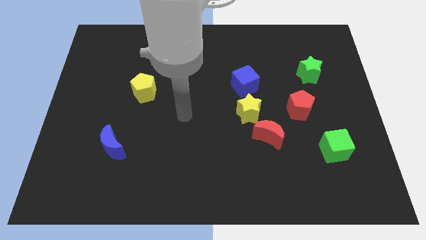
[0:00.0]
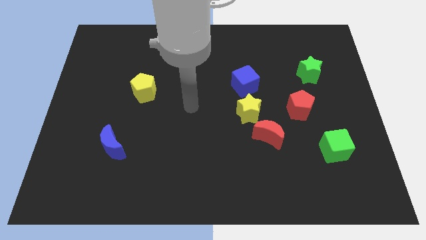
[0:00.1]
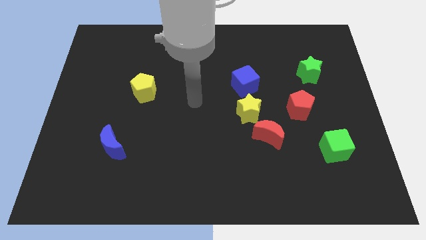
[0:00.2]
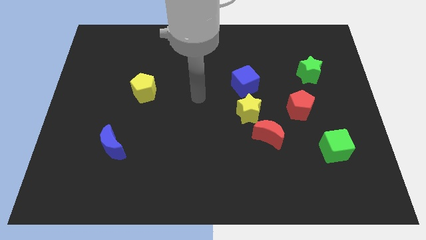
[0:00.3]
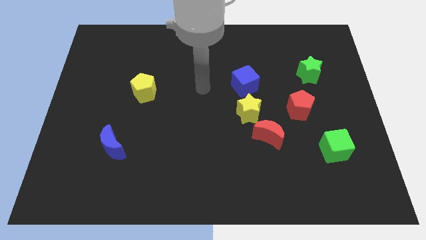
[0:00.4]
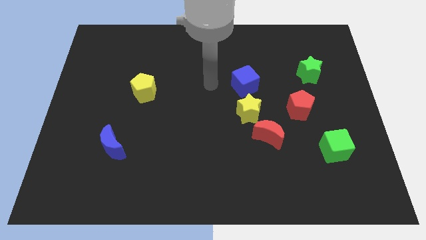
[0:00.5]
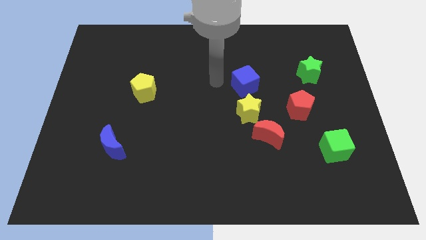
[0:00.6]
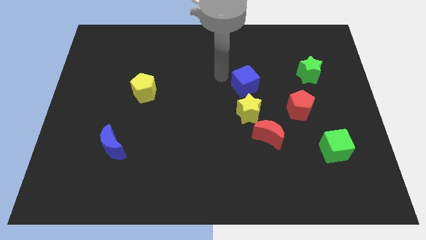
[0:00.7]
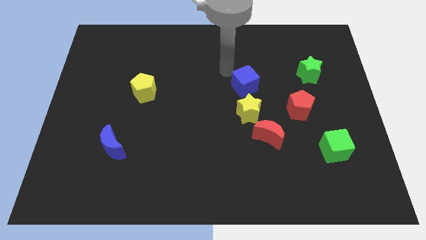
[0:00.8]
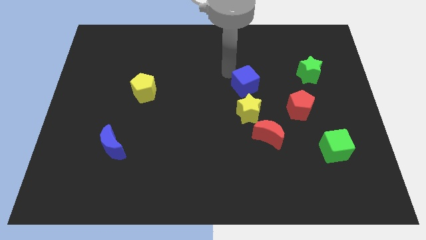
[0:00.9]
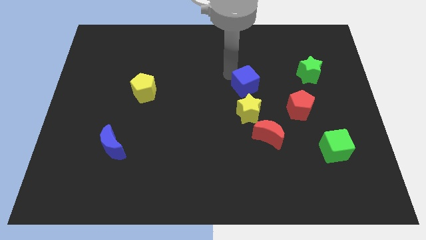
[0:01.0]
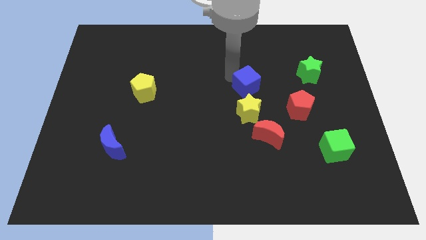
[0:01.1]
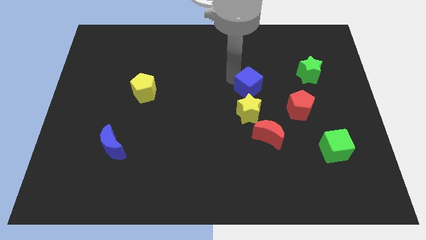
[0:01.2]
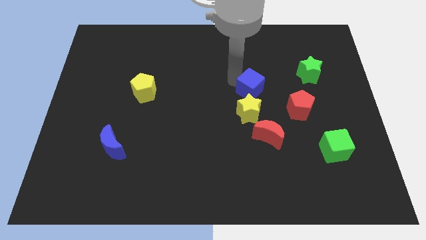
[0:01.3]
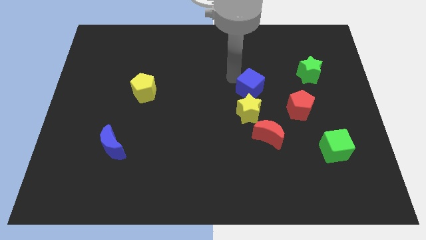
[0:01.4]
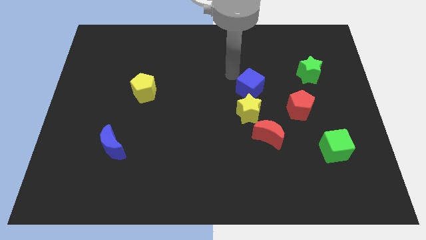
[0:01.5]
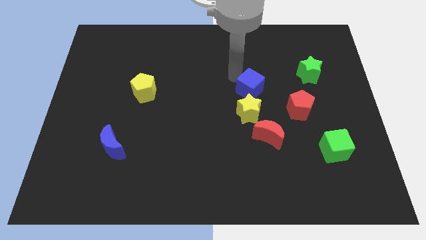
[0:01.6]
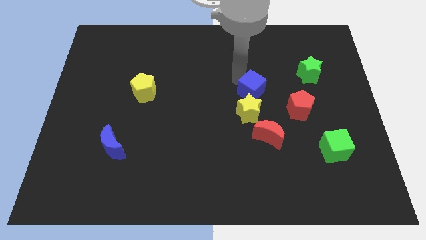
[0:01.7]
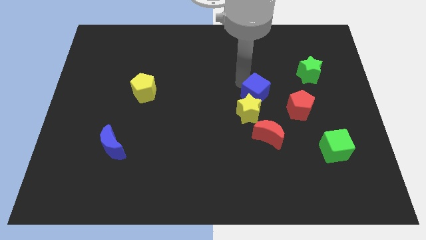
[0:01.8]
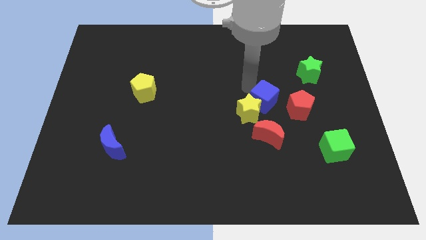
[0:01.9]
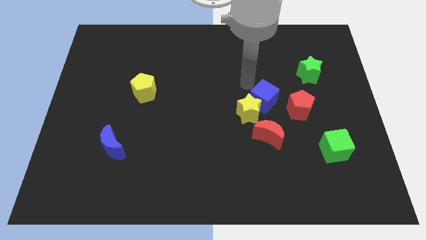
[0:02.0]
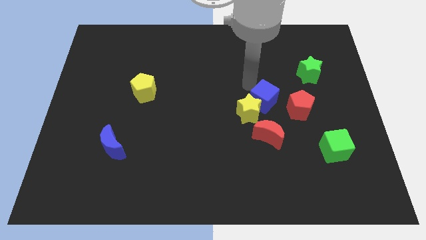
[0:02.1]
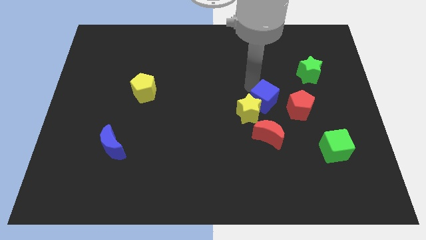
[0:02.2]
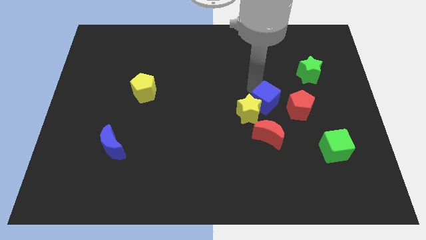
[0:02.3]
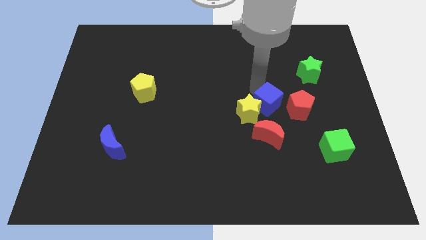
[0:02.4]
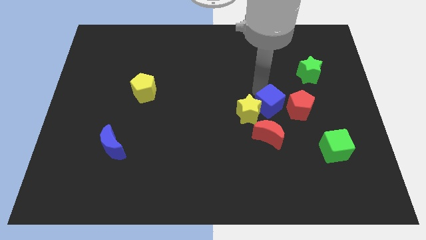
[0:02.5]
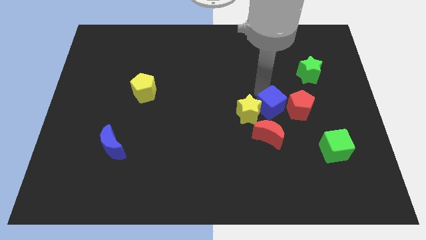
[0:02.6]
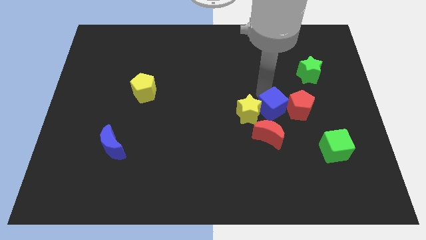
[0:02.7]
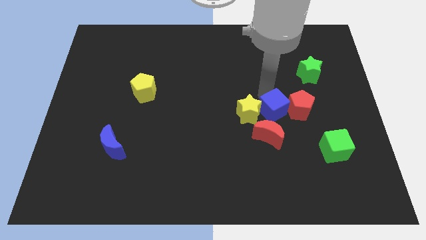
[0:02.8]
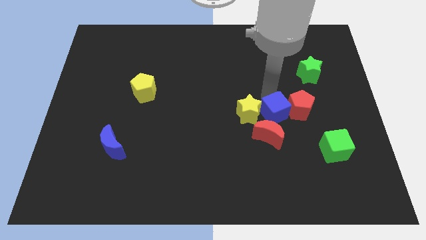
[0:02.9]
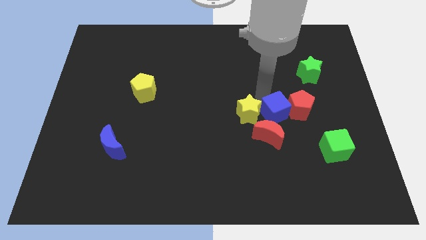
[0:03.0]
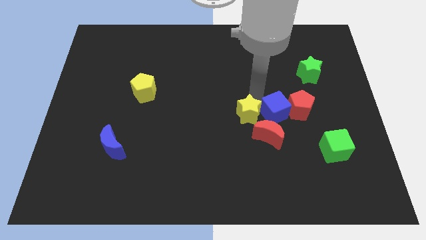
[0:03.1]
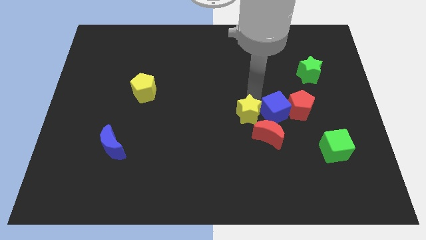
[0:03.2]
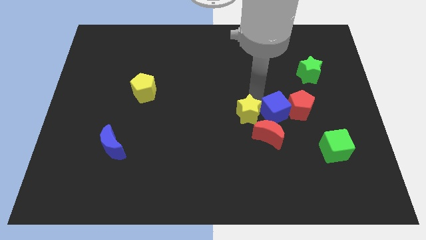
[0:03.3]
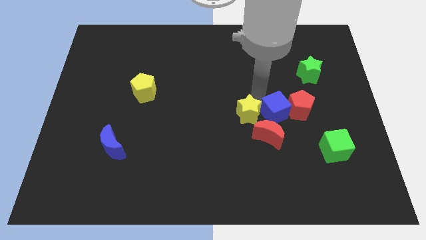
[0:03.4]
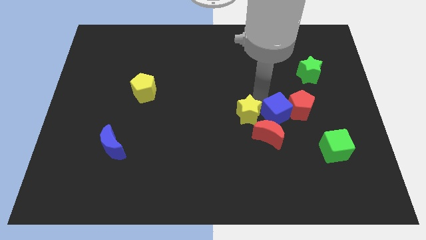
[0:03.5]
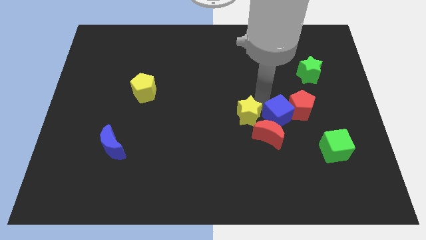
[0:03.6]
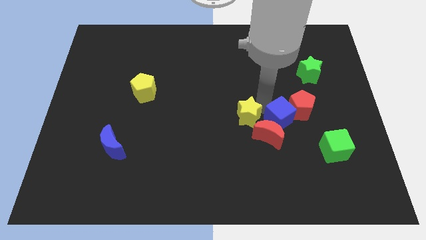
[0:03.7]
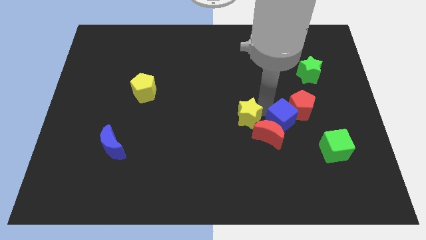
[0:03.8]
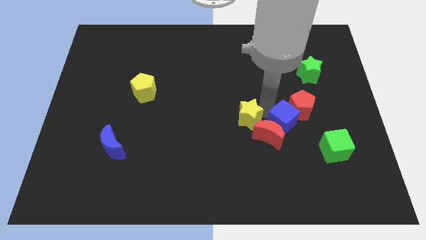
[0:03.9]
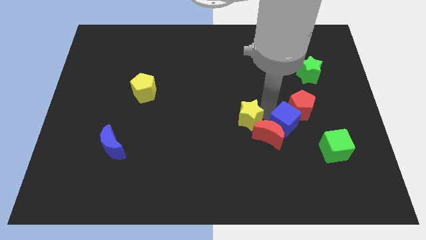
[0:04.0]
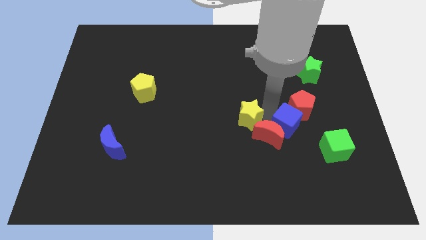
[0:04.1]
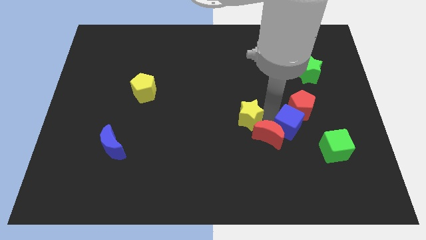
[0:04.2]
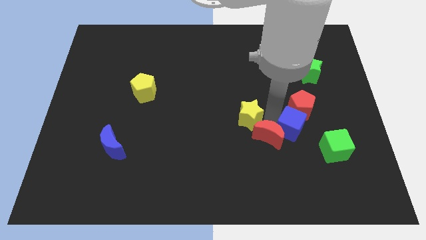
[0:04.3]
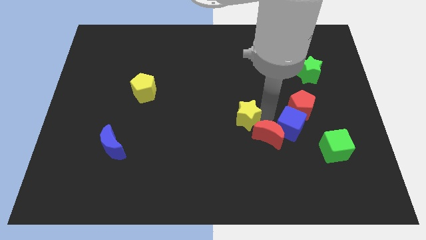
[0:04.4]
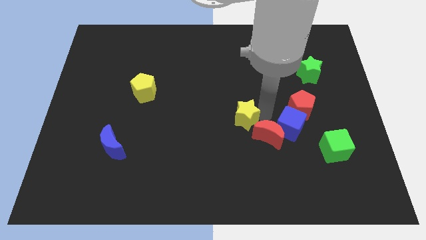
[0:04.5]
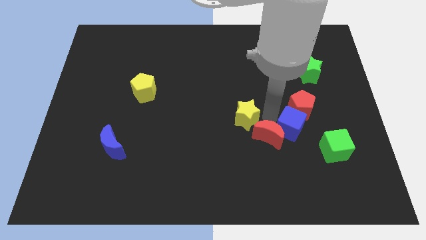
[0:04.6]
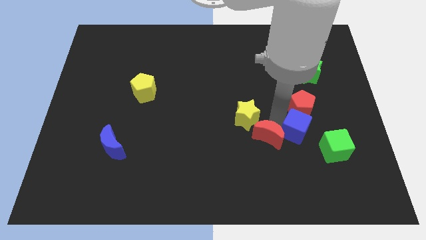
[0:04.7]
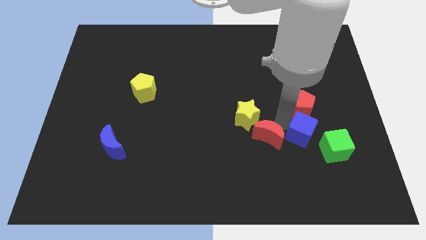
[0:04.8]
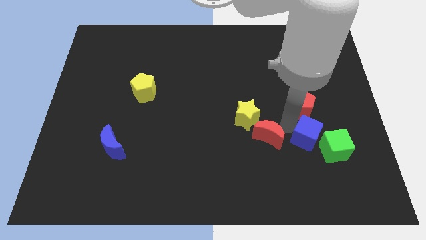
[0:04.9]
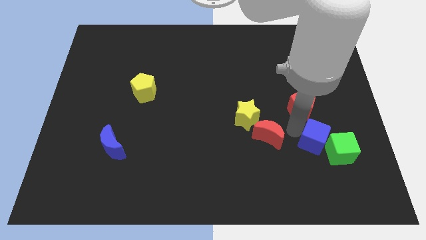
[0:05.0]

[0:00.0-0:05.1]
put the blue cube towards the green cube

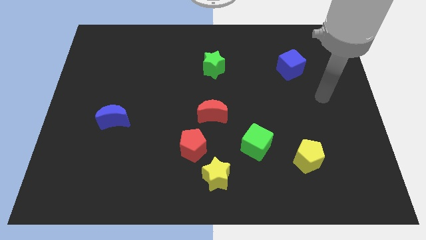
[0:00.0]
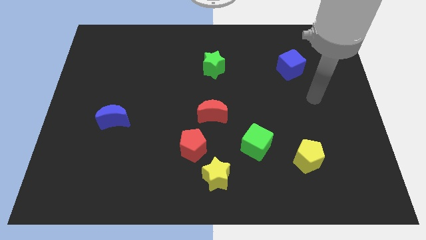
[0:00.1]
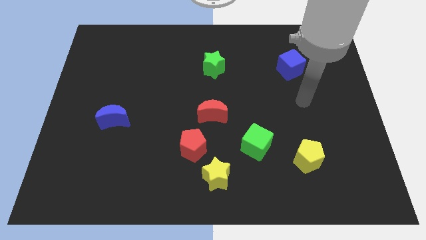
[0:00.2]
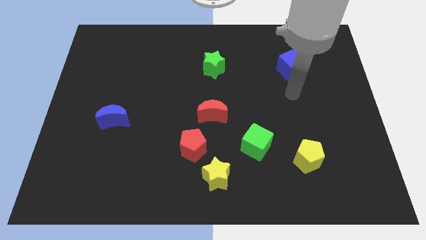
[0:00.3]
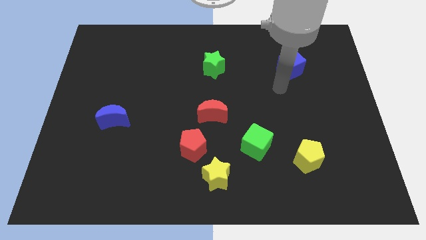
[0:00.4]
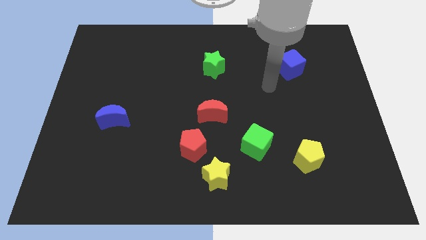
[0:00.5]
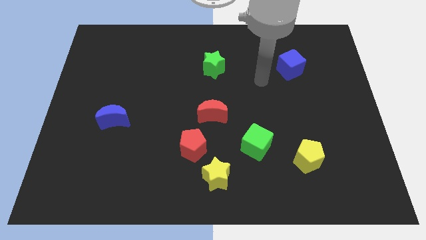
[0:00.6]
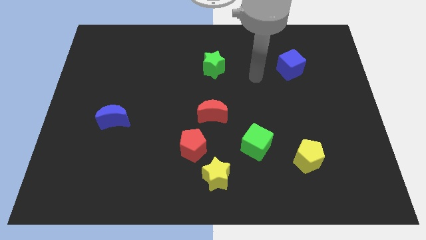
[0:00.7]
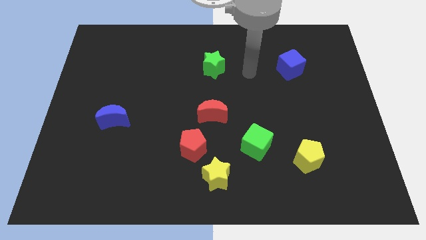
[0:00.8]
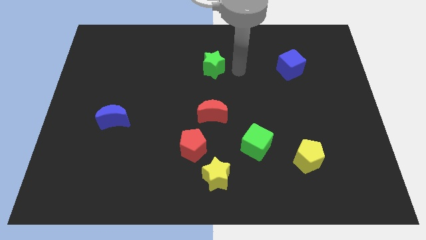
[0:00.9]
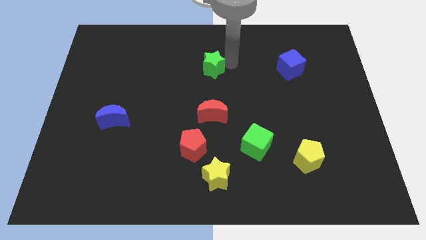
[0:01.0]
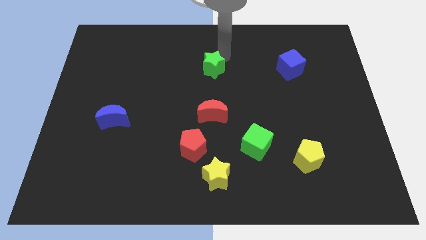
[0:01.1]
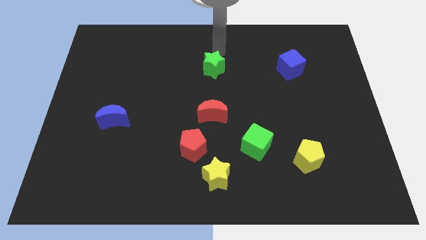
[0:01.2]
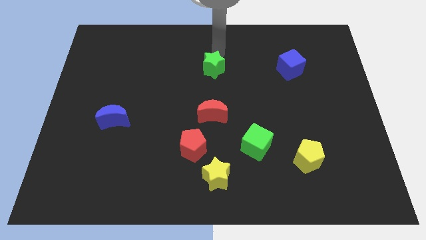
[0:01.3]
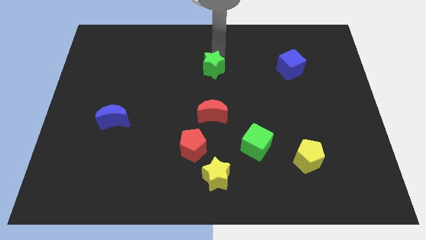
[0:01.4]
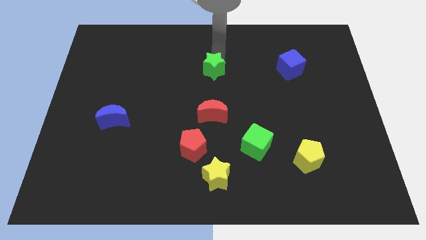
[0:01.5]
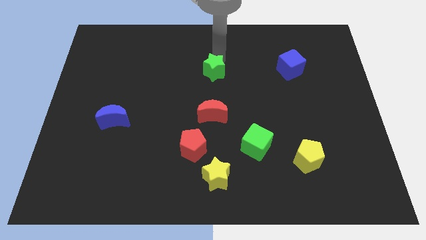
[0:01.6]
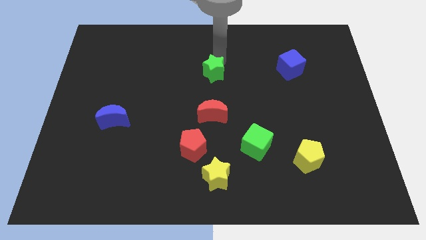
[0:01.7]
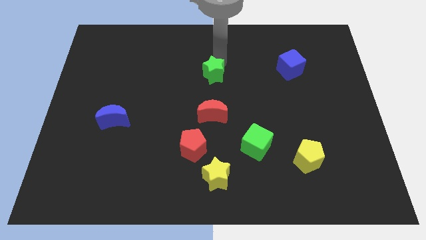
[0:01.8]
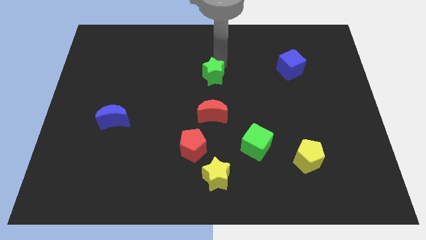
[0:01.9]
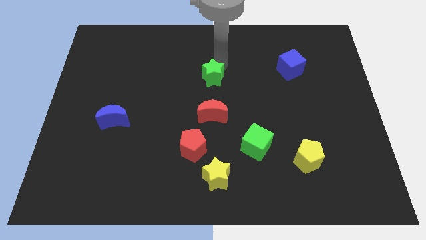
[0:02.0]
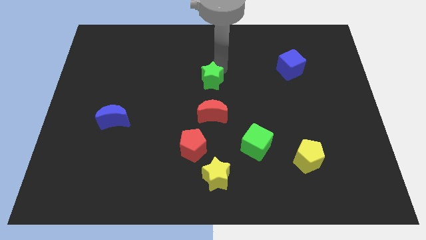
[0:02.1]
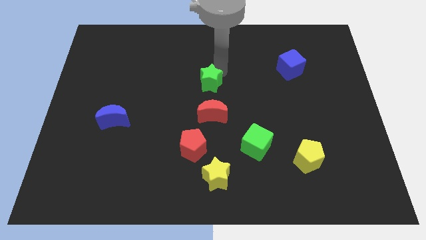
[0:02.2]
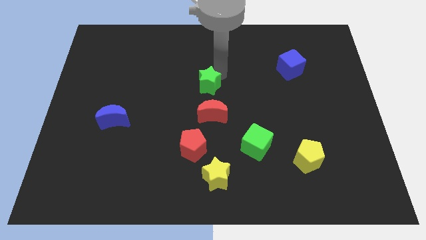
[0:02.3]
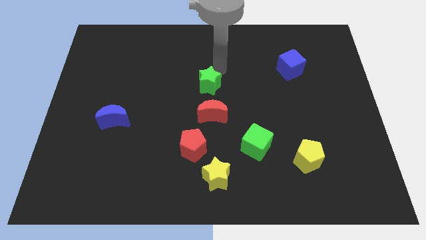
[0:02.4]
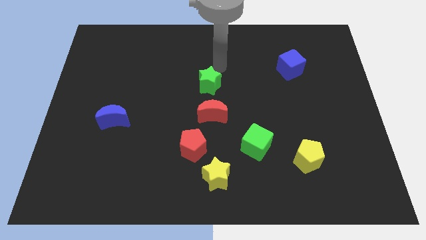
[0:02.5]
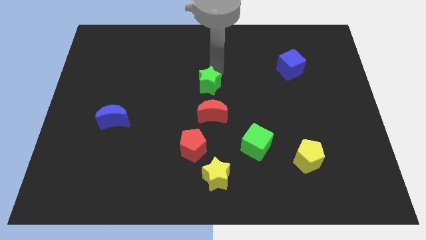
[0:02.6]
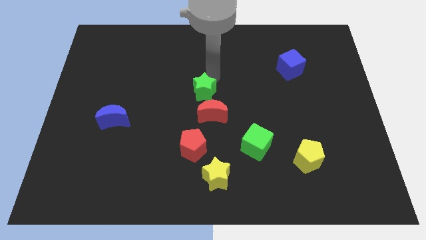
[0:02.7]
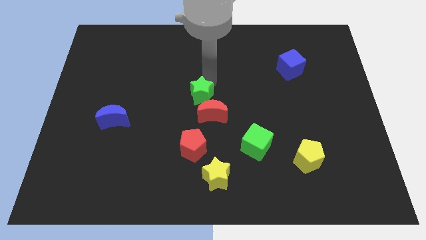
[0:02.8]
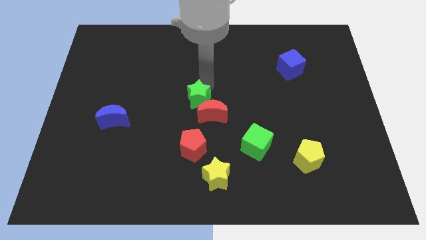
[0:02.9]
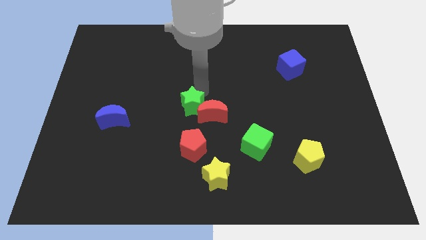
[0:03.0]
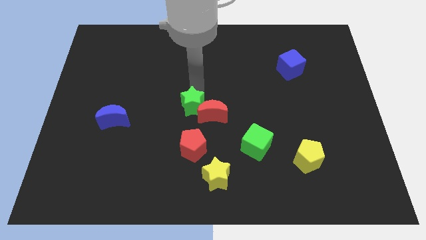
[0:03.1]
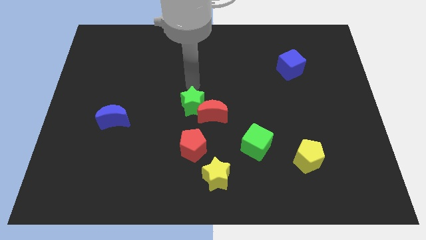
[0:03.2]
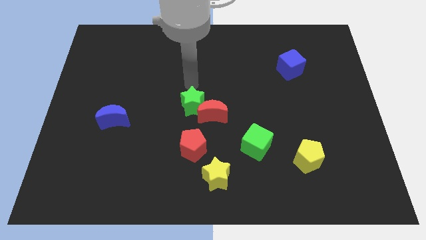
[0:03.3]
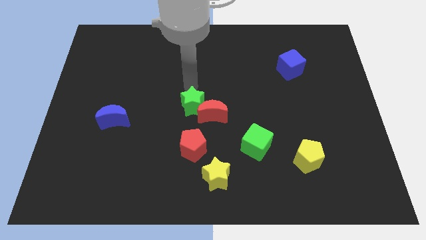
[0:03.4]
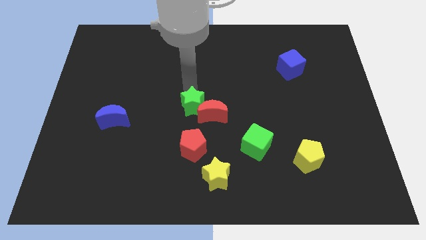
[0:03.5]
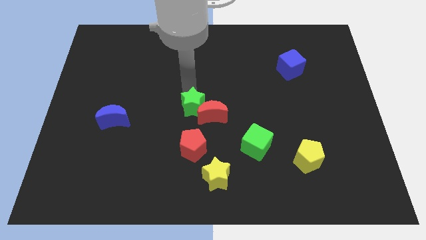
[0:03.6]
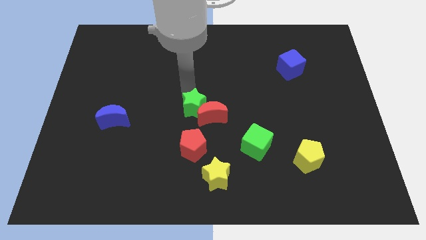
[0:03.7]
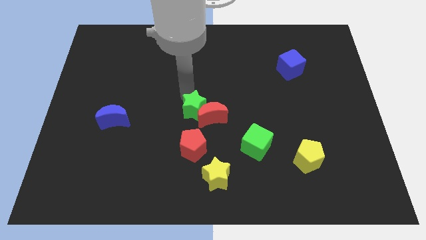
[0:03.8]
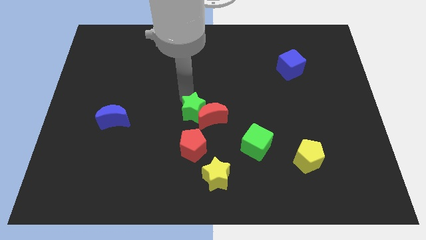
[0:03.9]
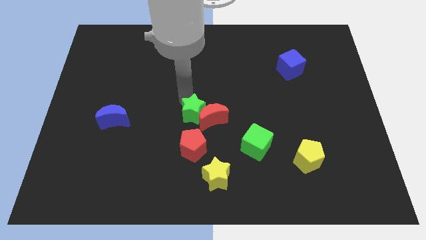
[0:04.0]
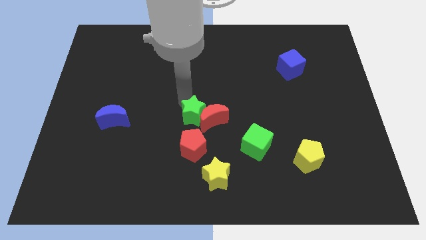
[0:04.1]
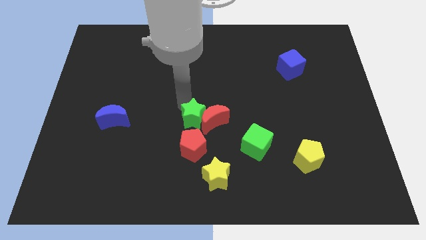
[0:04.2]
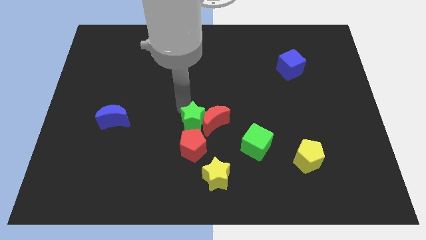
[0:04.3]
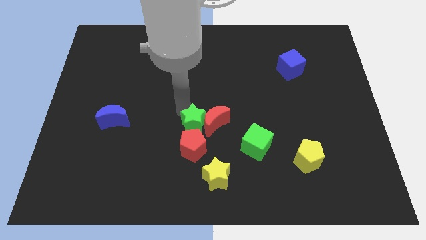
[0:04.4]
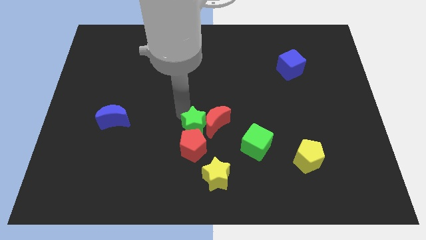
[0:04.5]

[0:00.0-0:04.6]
slide the green star close to the red pentagon
